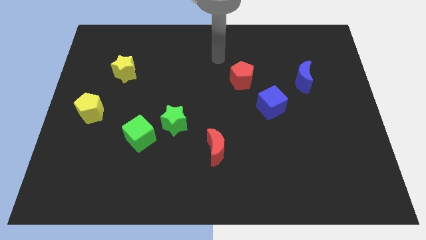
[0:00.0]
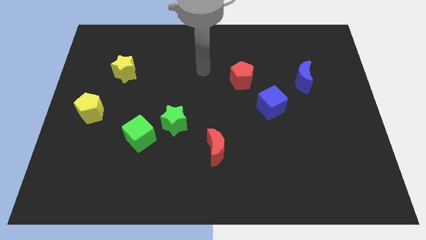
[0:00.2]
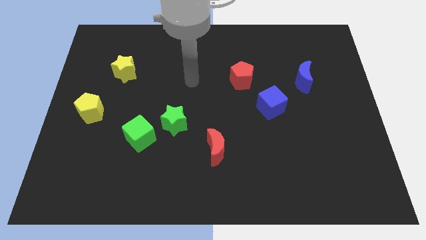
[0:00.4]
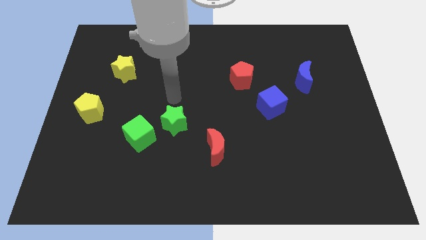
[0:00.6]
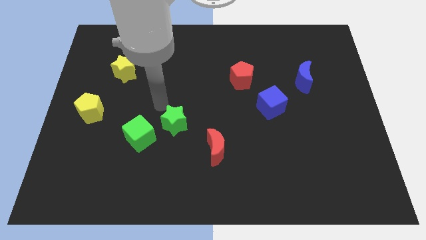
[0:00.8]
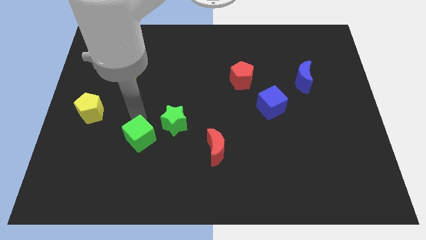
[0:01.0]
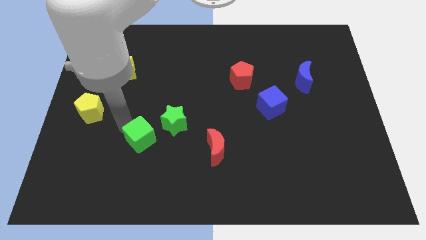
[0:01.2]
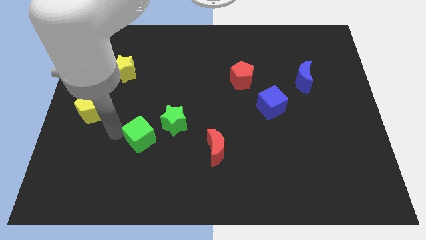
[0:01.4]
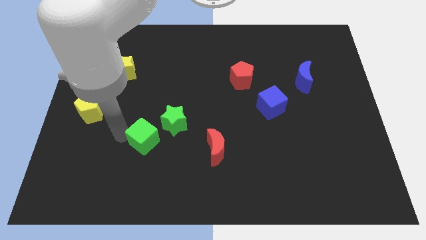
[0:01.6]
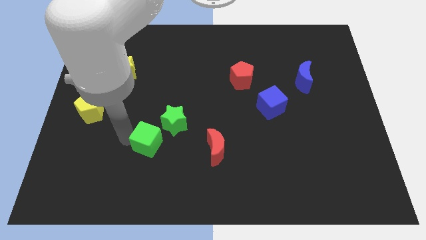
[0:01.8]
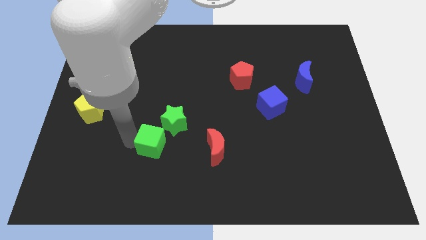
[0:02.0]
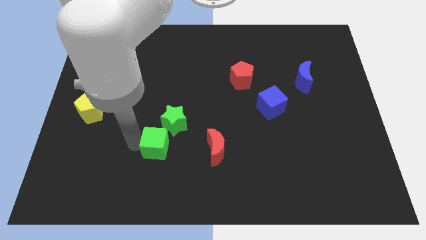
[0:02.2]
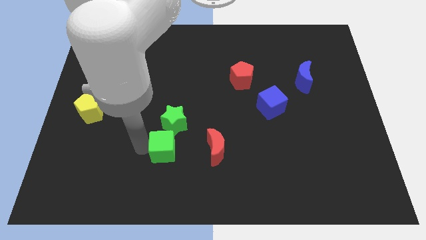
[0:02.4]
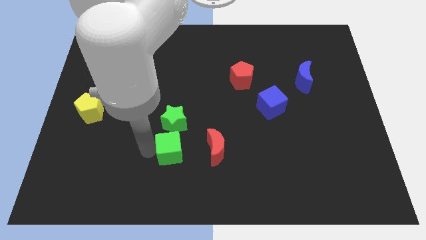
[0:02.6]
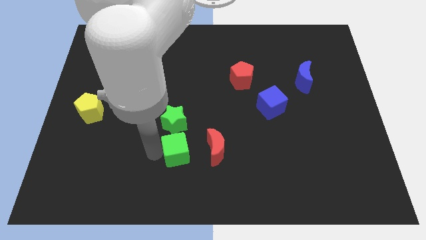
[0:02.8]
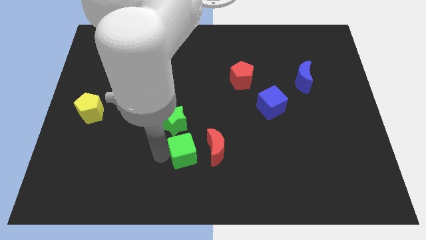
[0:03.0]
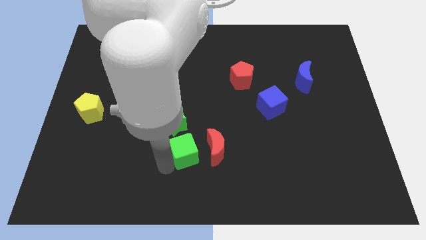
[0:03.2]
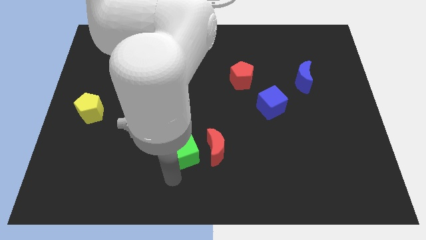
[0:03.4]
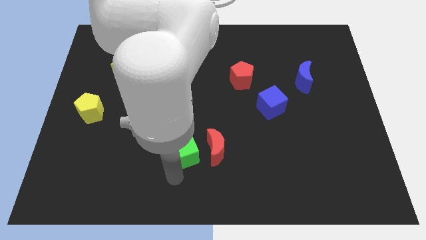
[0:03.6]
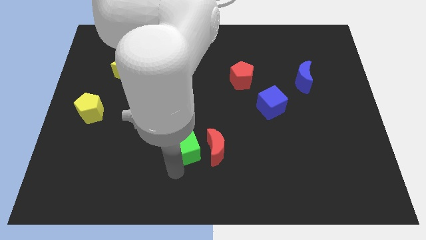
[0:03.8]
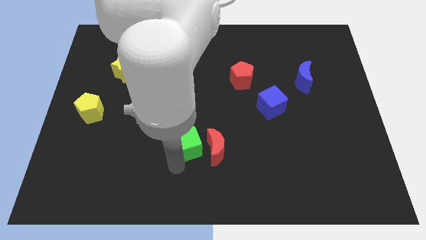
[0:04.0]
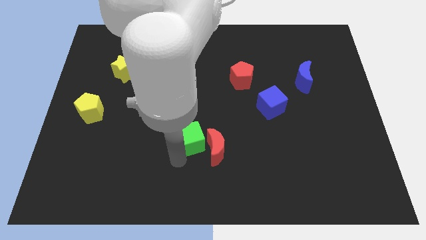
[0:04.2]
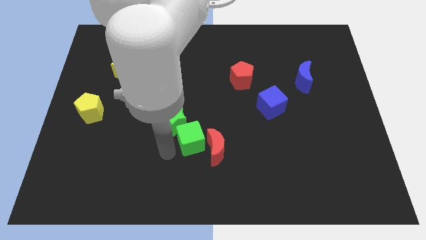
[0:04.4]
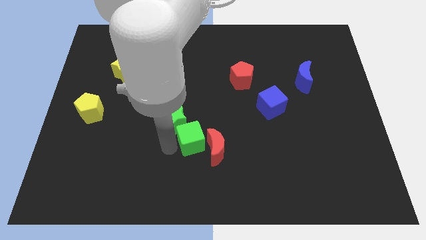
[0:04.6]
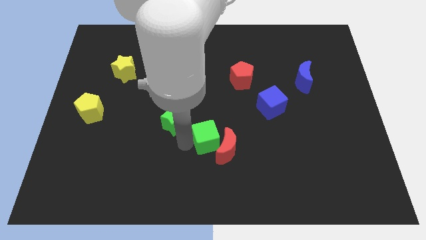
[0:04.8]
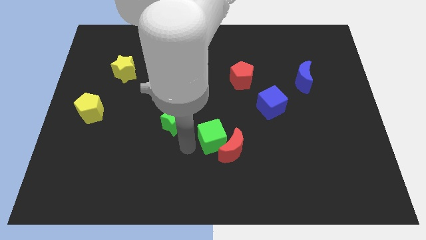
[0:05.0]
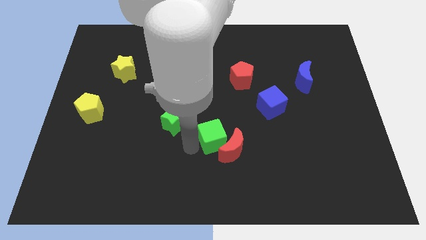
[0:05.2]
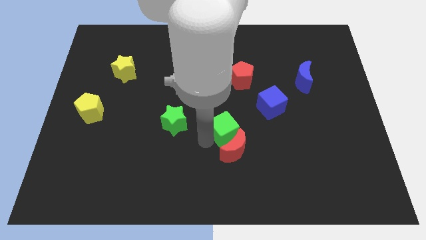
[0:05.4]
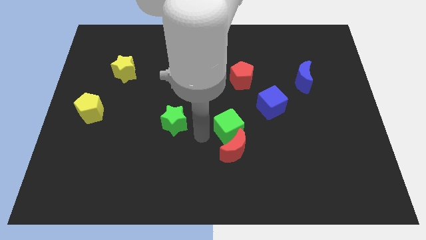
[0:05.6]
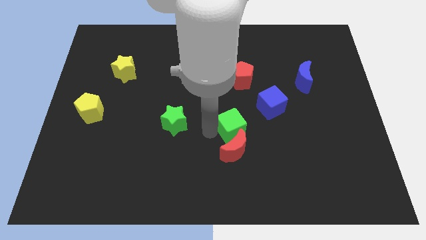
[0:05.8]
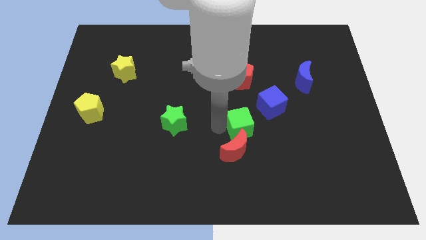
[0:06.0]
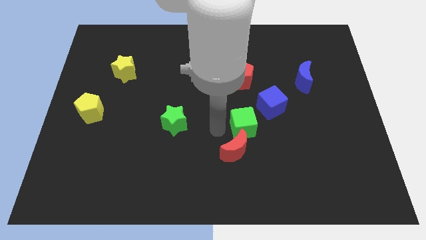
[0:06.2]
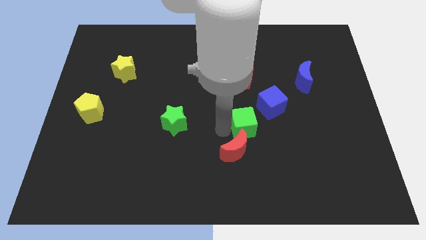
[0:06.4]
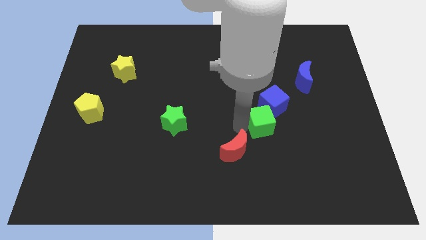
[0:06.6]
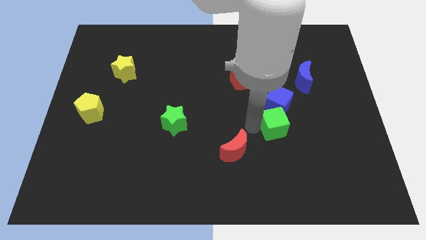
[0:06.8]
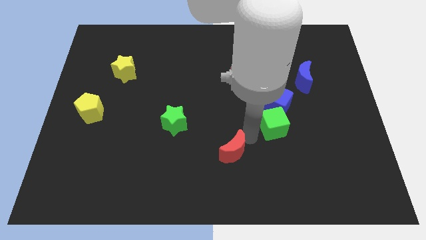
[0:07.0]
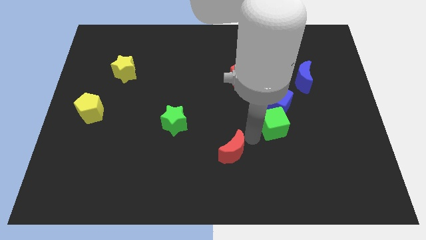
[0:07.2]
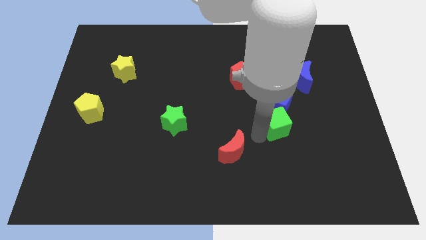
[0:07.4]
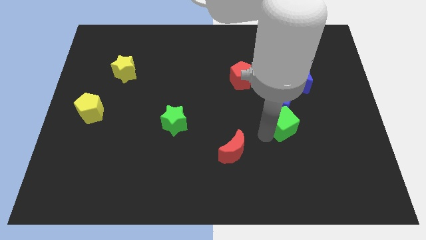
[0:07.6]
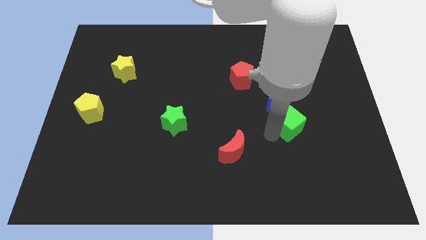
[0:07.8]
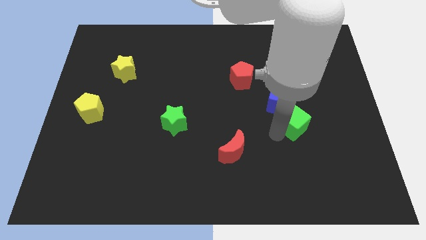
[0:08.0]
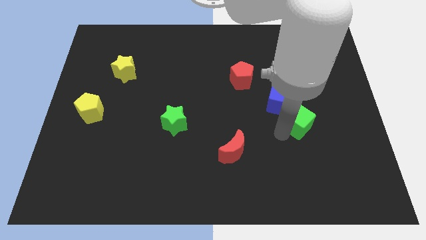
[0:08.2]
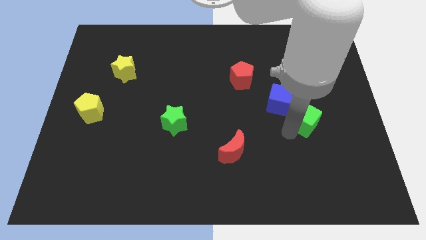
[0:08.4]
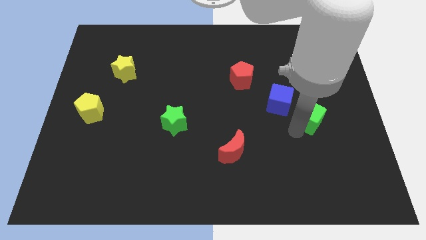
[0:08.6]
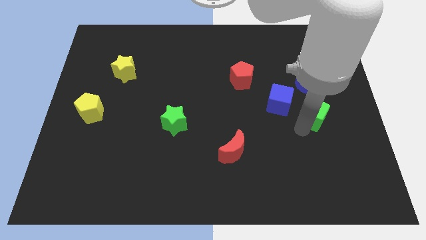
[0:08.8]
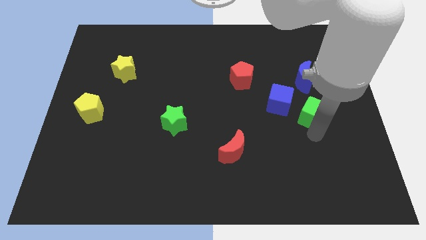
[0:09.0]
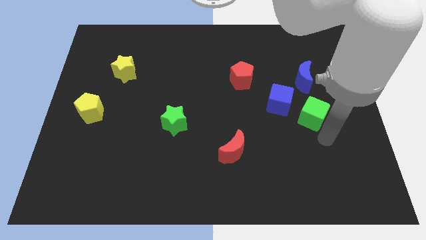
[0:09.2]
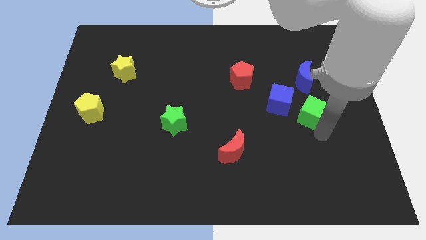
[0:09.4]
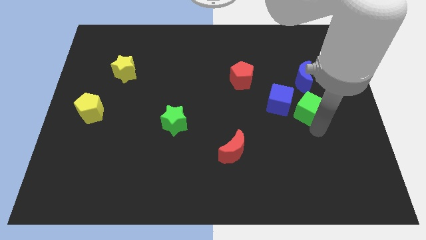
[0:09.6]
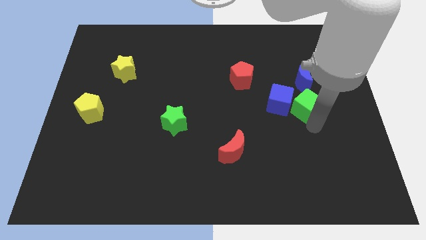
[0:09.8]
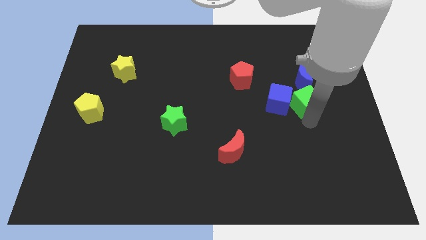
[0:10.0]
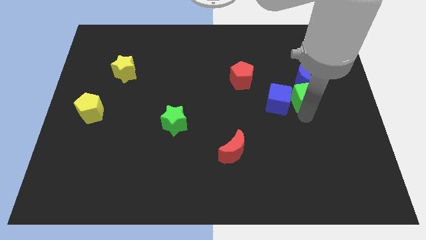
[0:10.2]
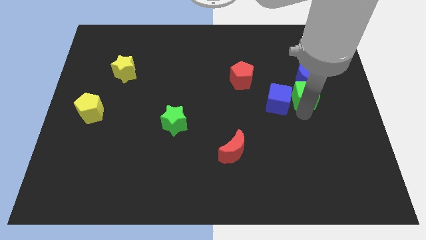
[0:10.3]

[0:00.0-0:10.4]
move the green cube close to the blue moon

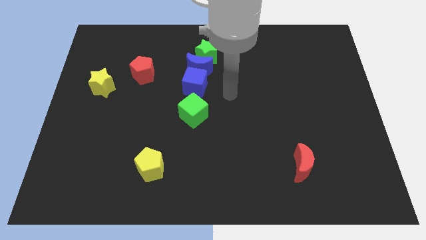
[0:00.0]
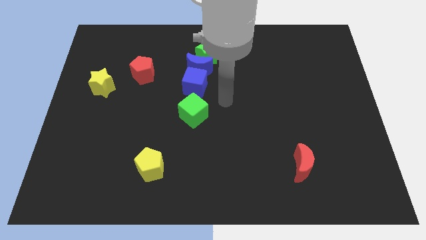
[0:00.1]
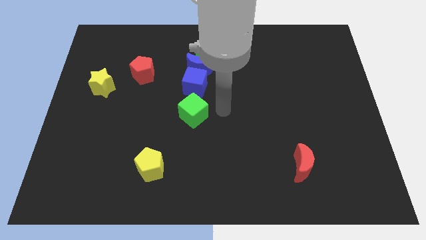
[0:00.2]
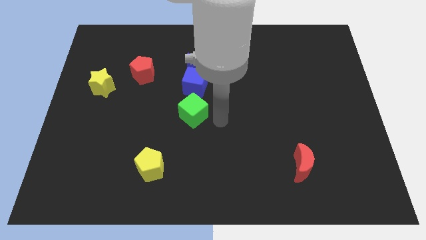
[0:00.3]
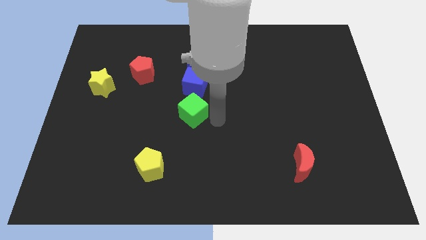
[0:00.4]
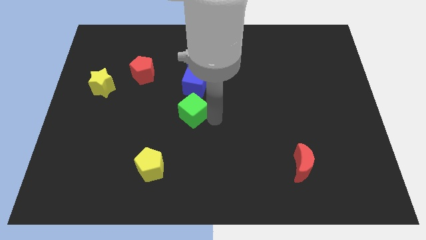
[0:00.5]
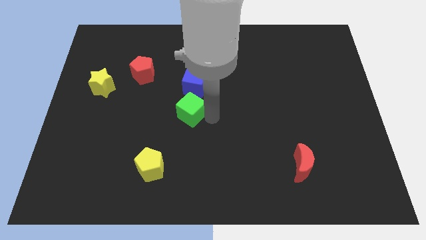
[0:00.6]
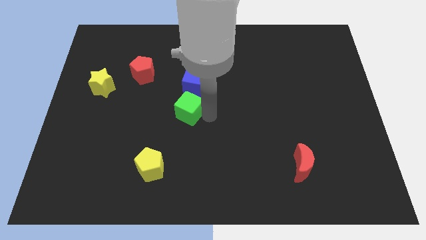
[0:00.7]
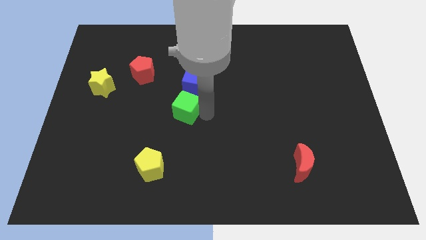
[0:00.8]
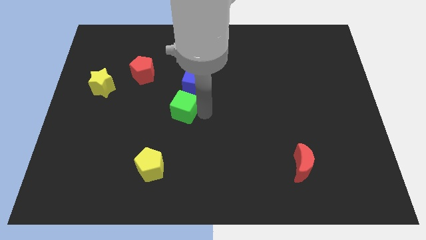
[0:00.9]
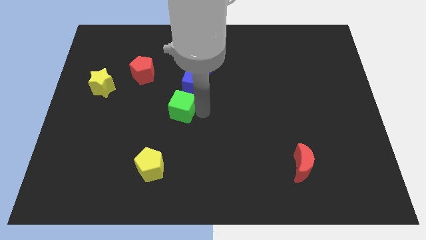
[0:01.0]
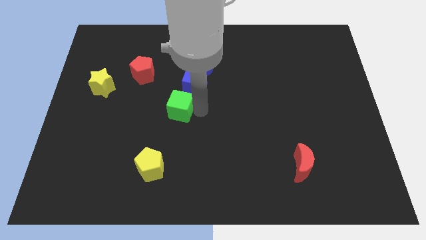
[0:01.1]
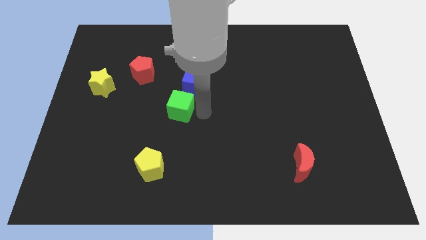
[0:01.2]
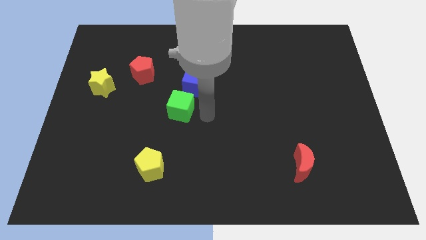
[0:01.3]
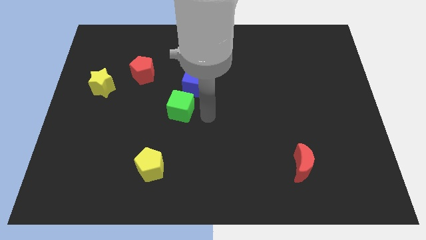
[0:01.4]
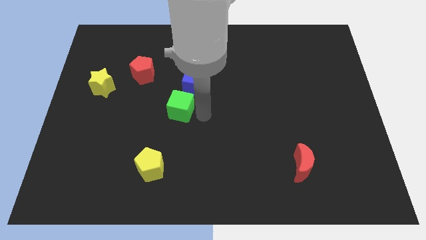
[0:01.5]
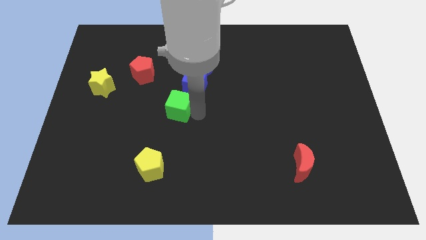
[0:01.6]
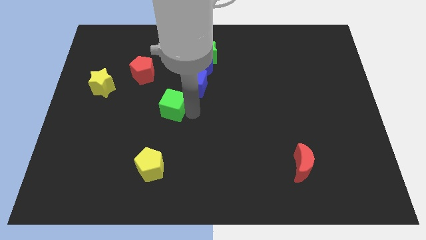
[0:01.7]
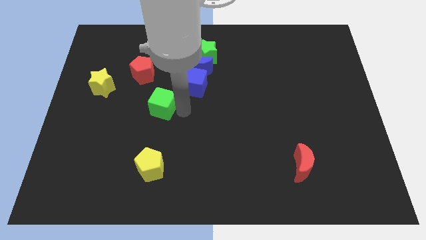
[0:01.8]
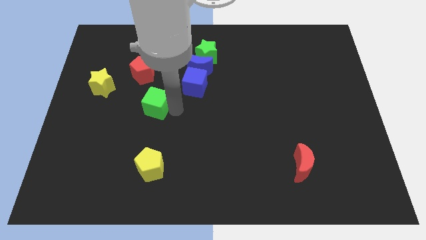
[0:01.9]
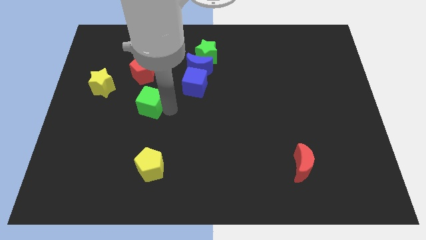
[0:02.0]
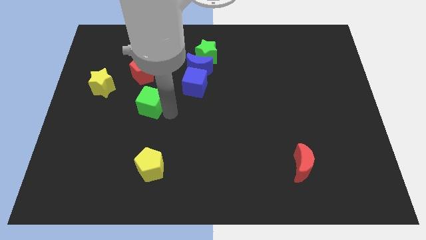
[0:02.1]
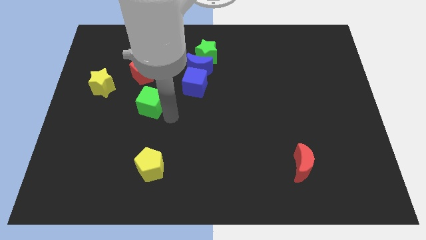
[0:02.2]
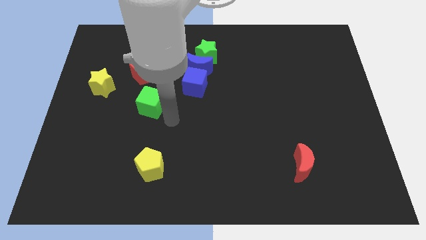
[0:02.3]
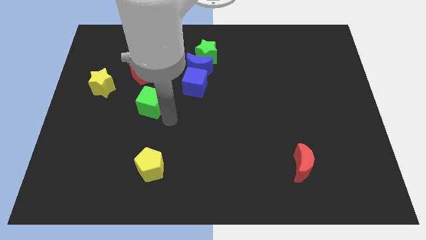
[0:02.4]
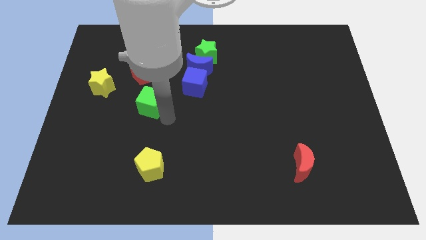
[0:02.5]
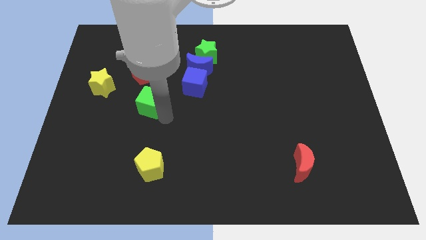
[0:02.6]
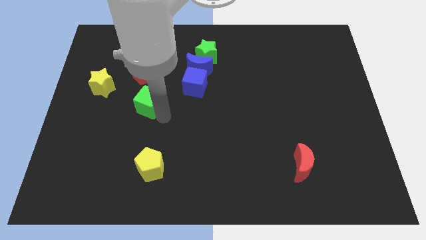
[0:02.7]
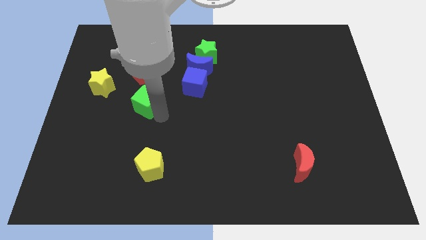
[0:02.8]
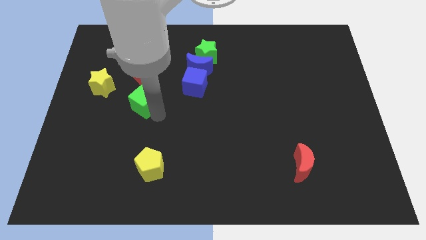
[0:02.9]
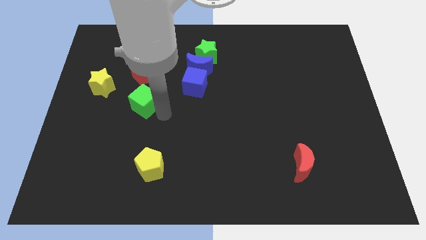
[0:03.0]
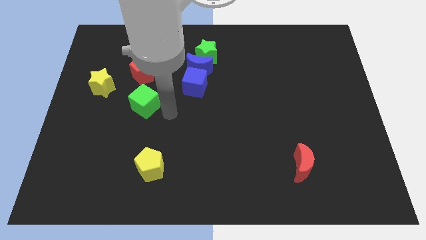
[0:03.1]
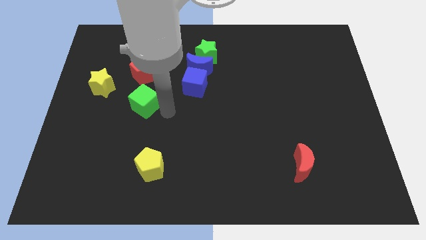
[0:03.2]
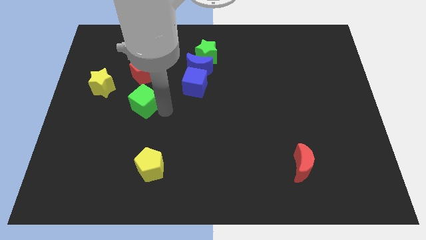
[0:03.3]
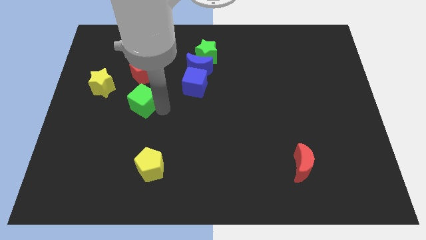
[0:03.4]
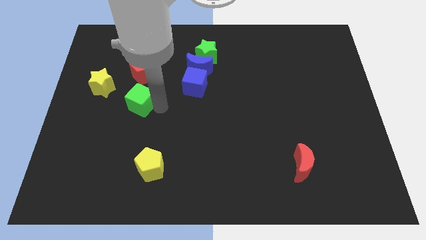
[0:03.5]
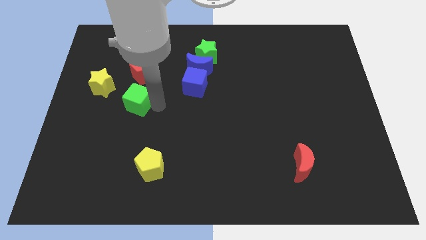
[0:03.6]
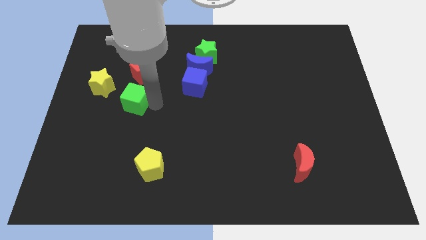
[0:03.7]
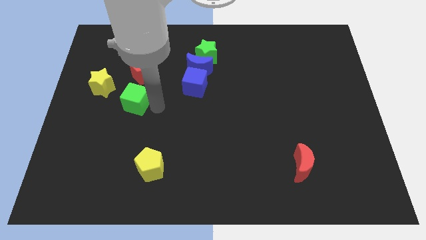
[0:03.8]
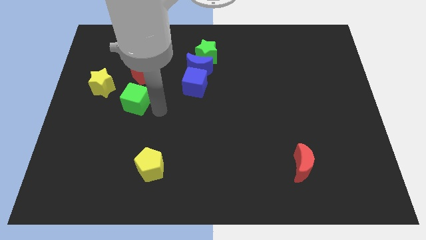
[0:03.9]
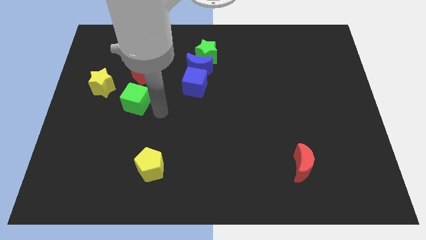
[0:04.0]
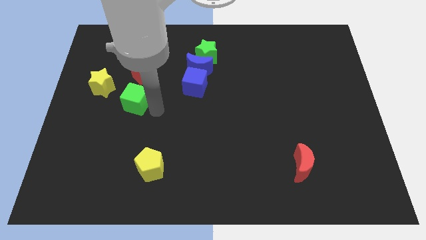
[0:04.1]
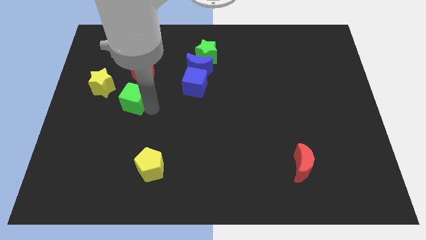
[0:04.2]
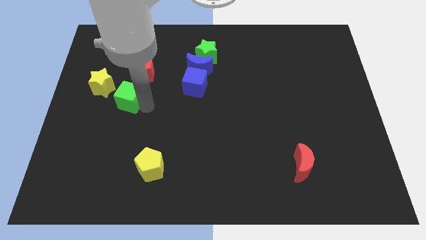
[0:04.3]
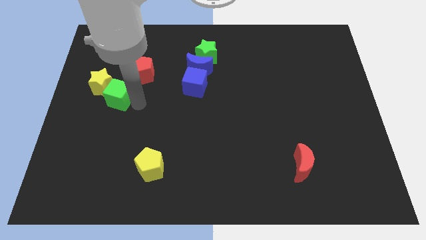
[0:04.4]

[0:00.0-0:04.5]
slide the green cube close to the yellow star
